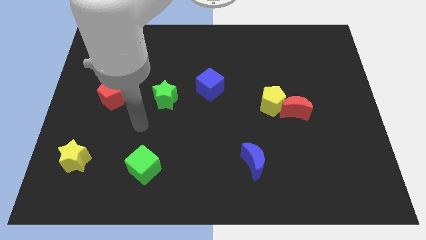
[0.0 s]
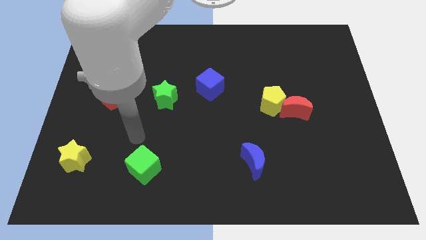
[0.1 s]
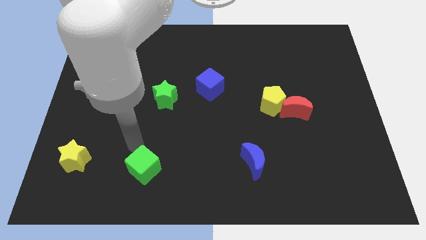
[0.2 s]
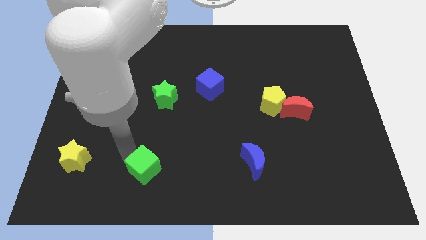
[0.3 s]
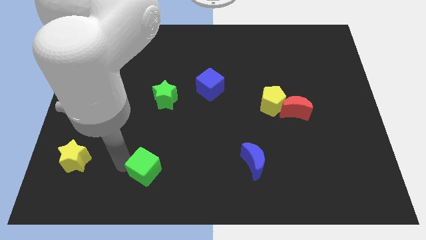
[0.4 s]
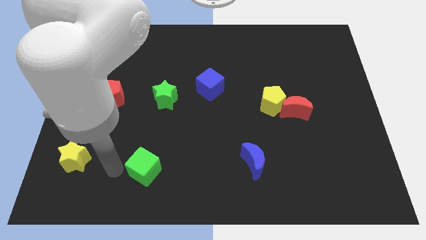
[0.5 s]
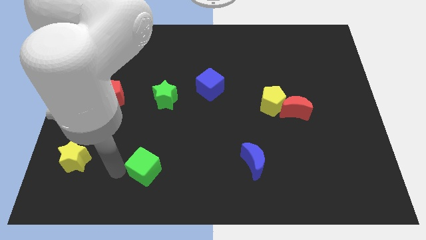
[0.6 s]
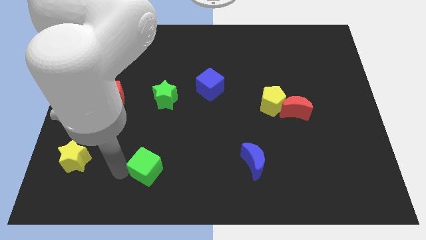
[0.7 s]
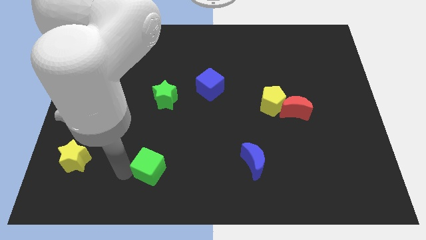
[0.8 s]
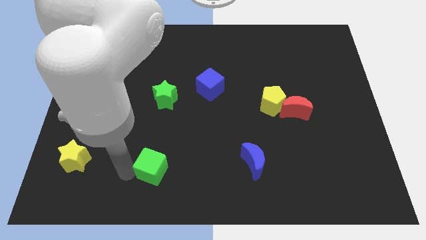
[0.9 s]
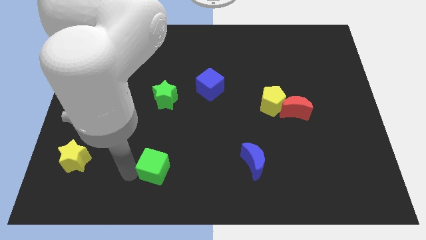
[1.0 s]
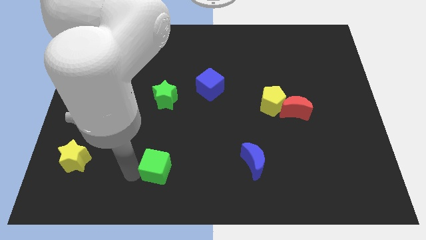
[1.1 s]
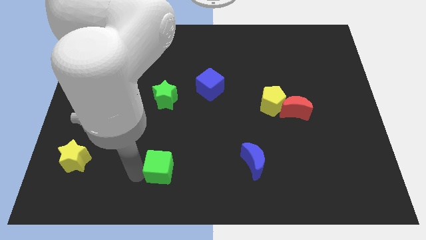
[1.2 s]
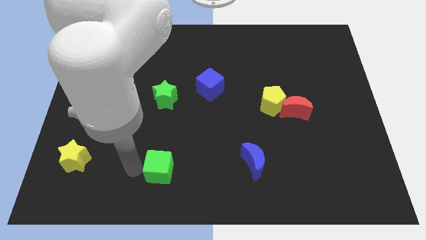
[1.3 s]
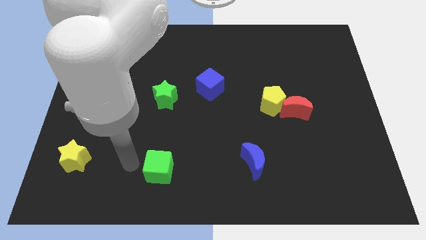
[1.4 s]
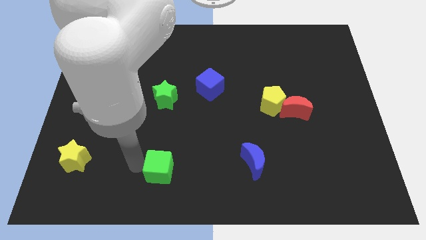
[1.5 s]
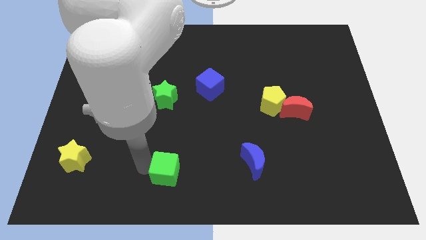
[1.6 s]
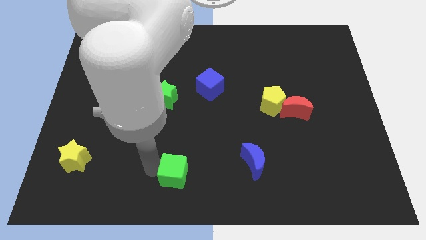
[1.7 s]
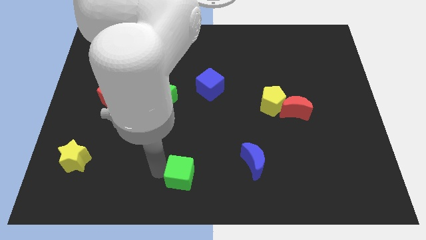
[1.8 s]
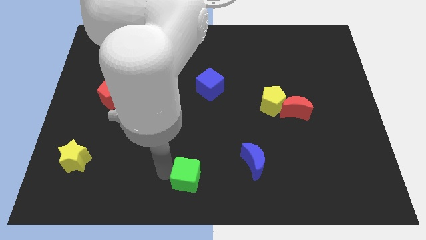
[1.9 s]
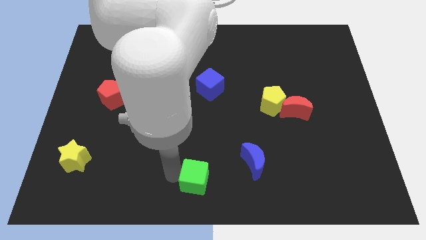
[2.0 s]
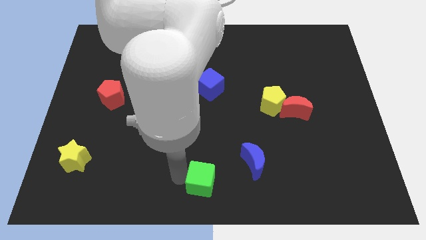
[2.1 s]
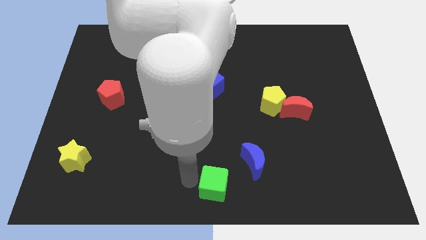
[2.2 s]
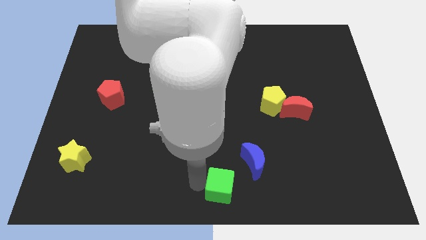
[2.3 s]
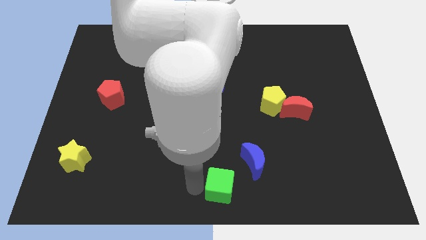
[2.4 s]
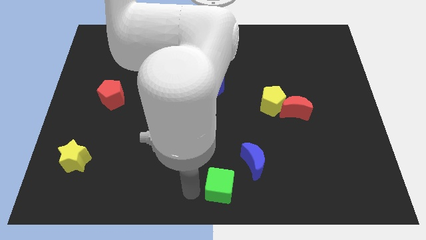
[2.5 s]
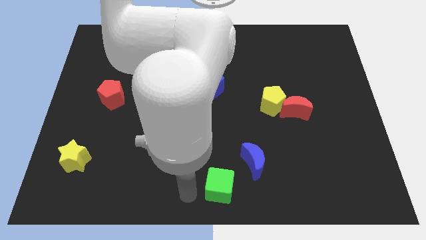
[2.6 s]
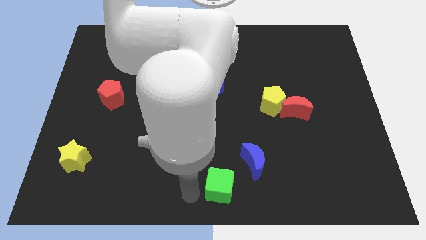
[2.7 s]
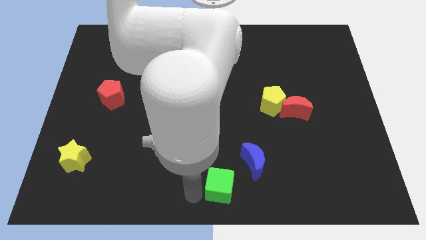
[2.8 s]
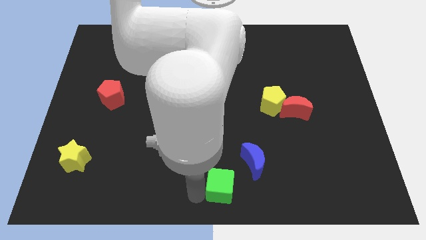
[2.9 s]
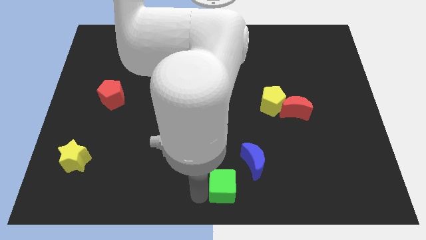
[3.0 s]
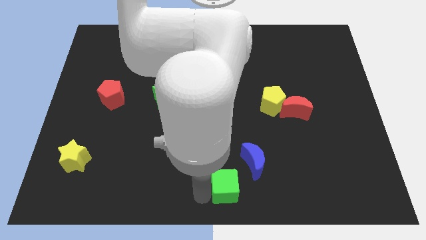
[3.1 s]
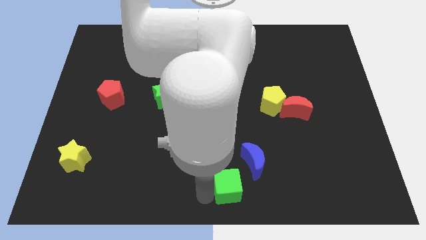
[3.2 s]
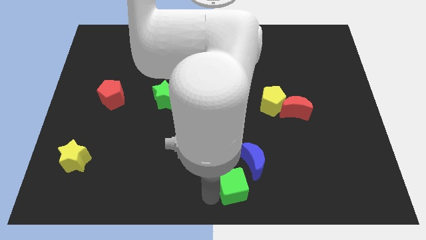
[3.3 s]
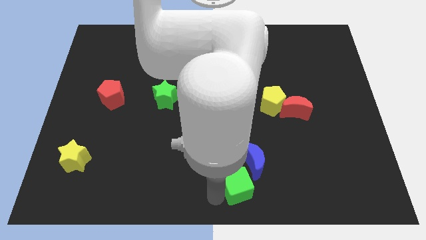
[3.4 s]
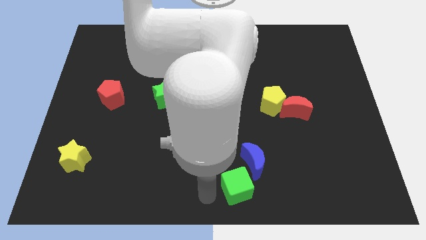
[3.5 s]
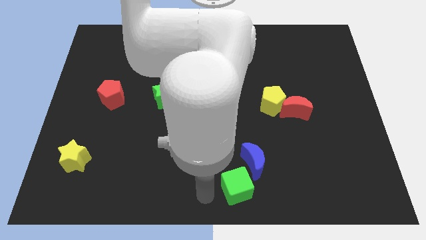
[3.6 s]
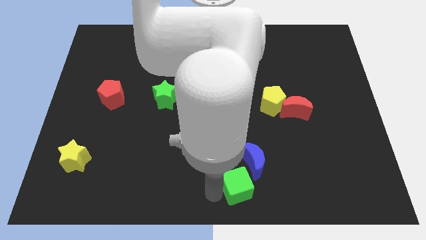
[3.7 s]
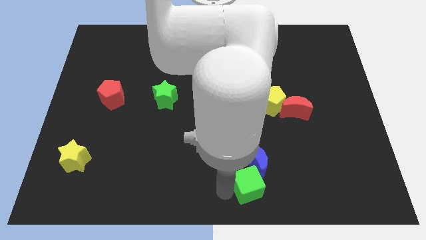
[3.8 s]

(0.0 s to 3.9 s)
slide the green cube right

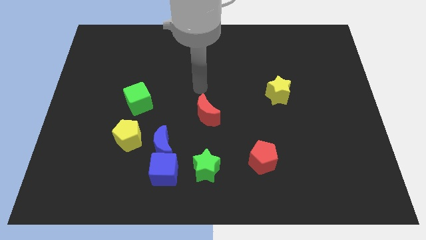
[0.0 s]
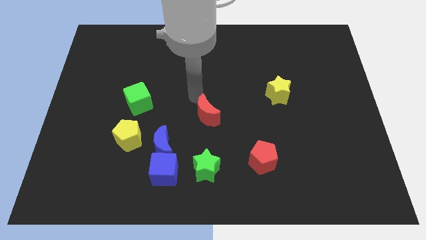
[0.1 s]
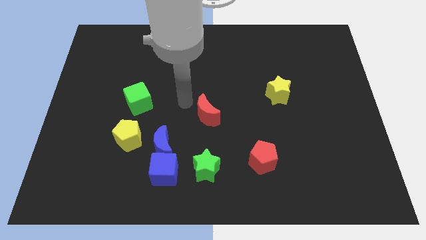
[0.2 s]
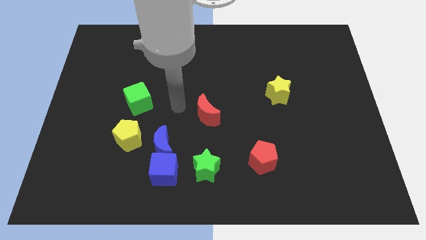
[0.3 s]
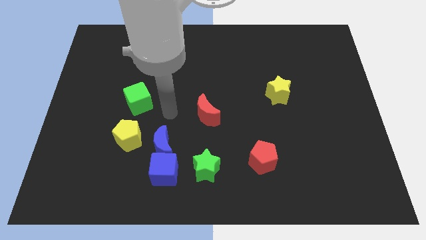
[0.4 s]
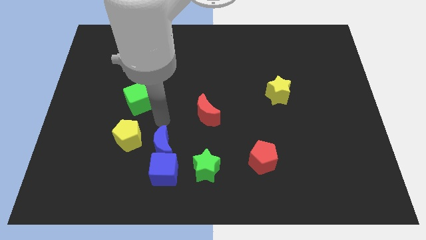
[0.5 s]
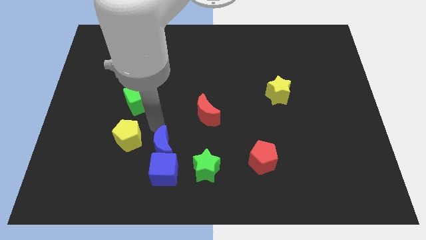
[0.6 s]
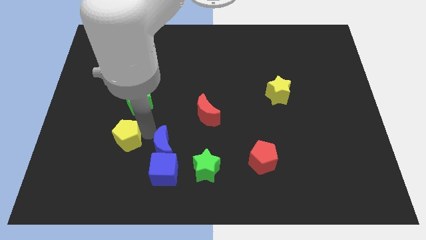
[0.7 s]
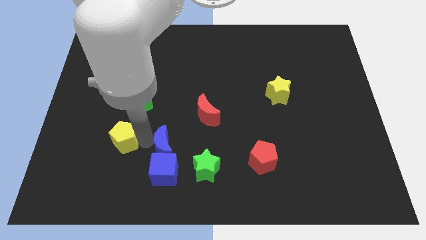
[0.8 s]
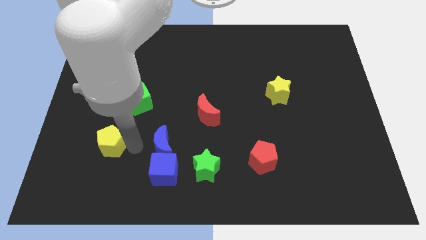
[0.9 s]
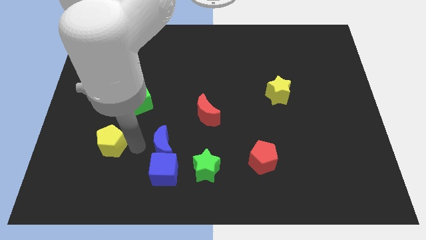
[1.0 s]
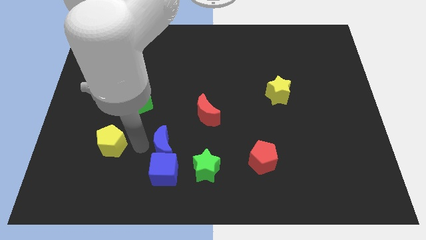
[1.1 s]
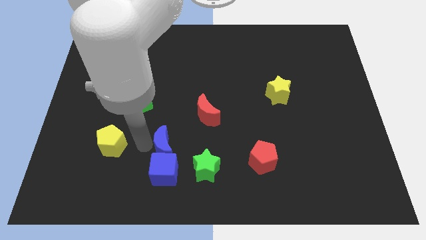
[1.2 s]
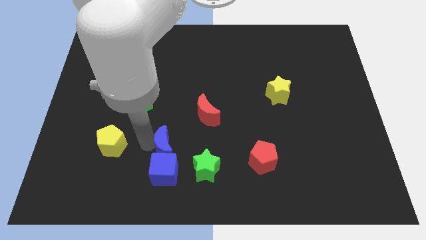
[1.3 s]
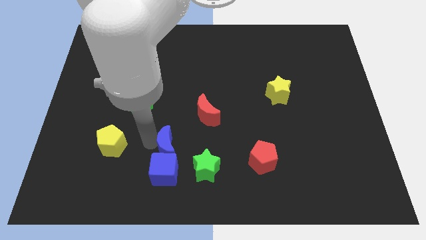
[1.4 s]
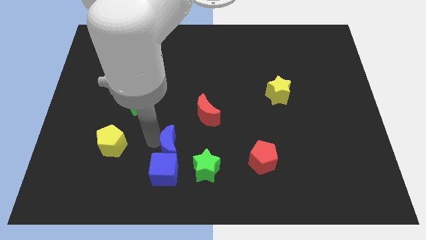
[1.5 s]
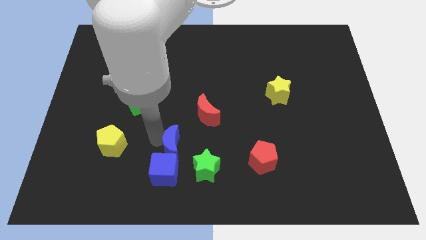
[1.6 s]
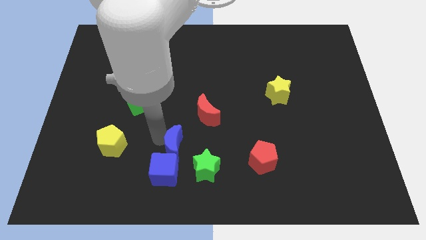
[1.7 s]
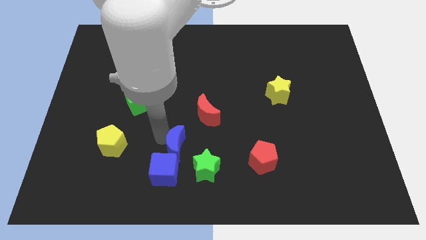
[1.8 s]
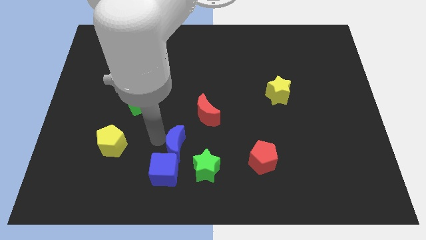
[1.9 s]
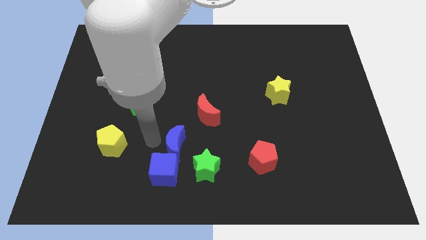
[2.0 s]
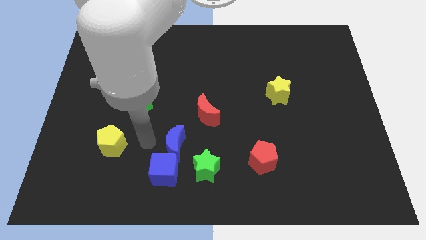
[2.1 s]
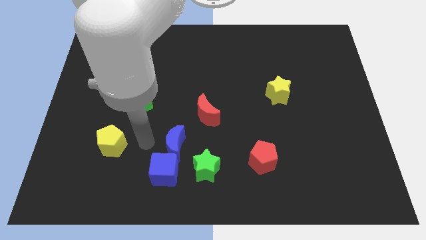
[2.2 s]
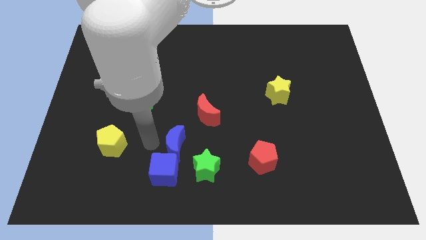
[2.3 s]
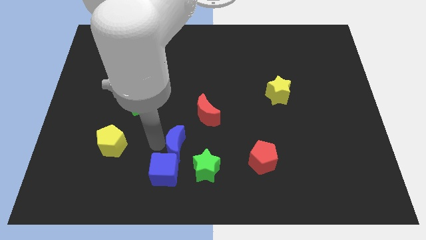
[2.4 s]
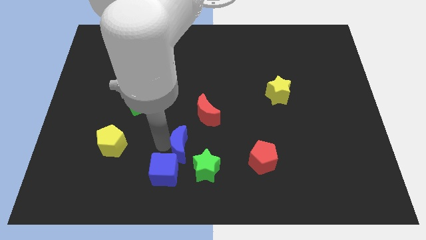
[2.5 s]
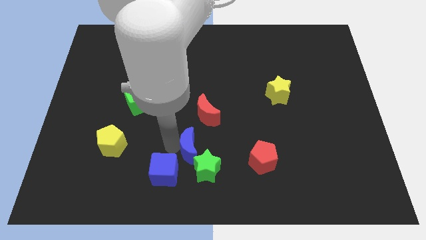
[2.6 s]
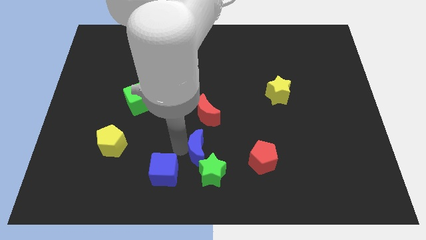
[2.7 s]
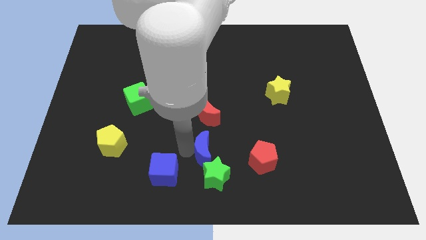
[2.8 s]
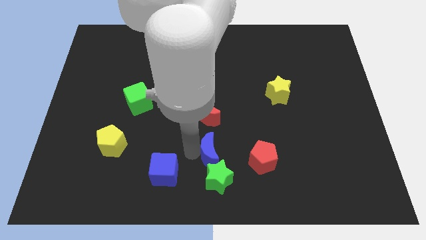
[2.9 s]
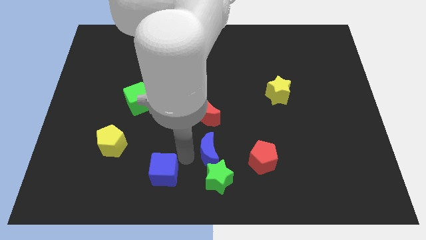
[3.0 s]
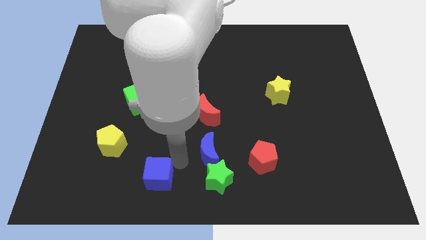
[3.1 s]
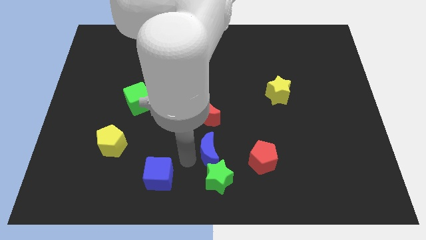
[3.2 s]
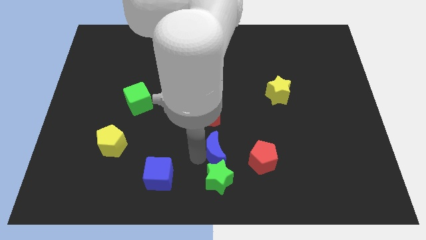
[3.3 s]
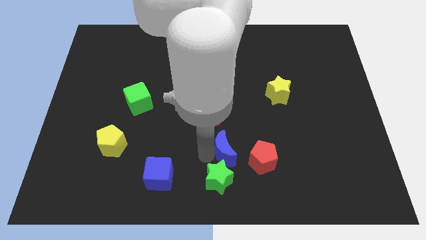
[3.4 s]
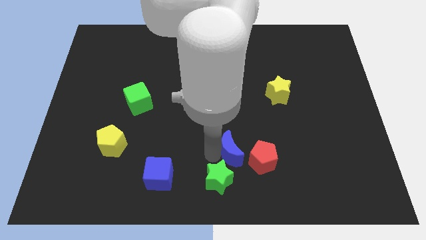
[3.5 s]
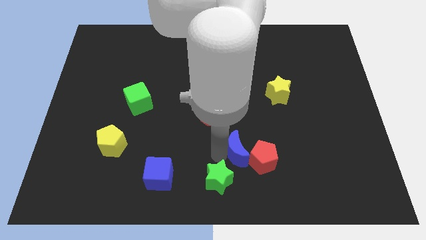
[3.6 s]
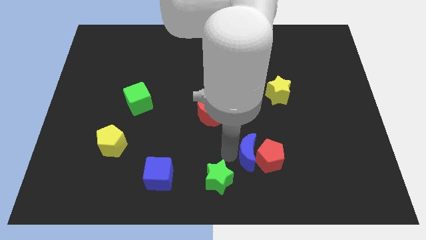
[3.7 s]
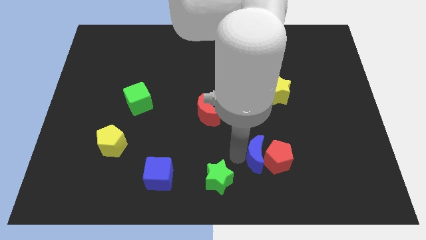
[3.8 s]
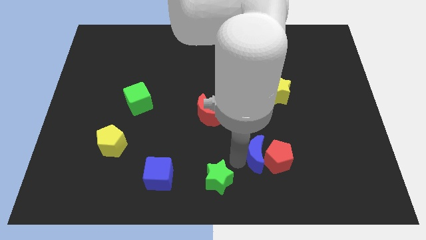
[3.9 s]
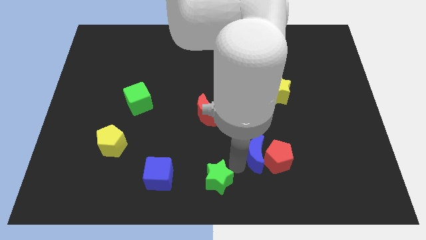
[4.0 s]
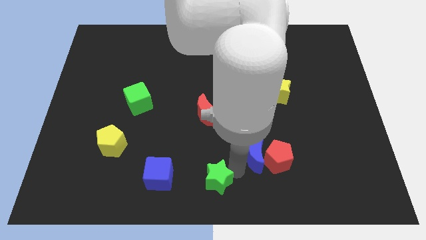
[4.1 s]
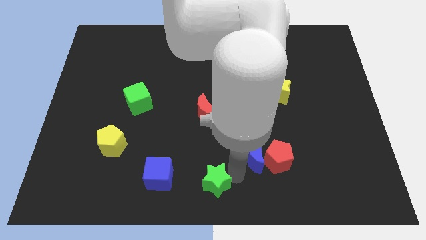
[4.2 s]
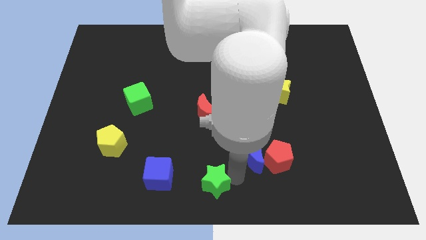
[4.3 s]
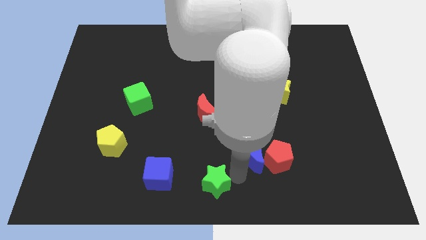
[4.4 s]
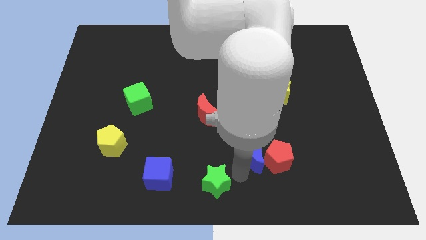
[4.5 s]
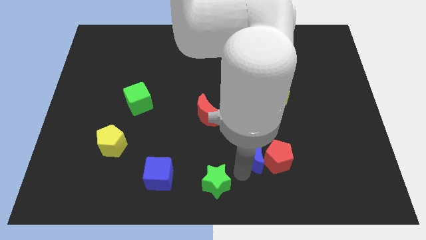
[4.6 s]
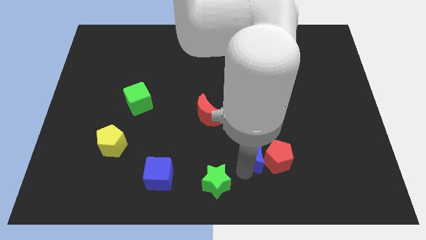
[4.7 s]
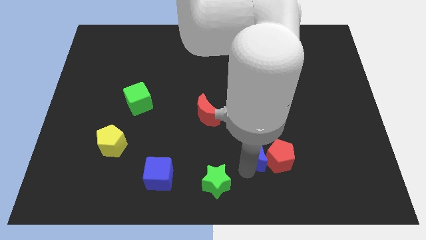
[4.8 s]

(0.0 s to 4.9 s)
slide the blue moon to the right
